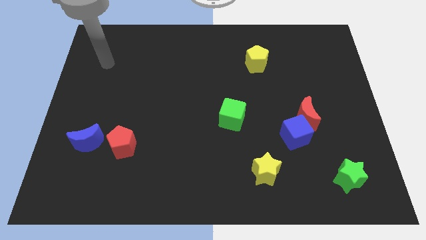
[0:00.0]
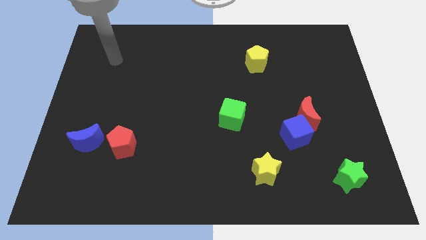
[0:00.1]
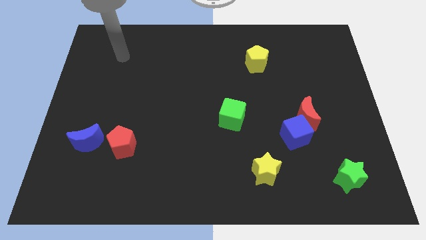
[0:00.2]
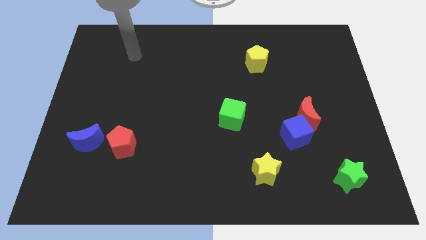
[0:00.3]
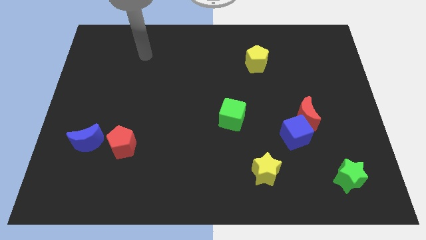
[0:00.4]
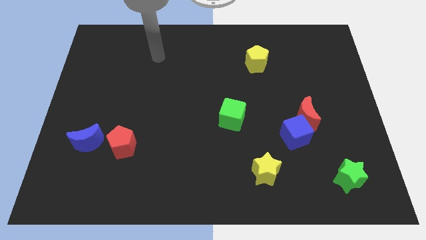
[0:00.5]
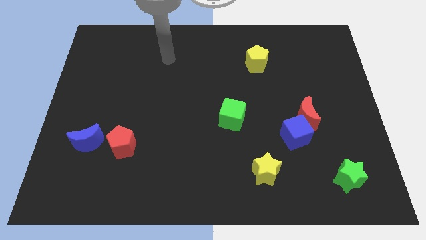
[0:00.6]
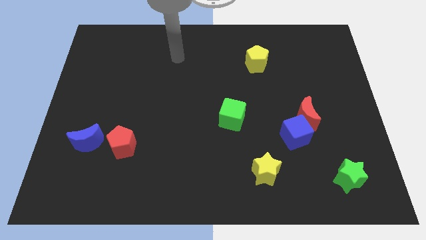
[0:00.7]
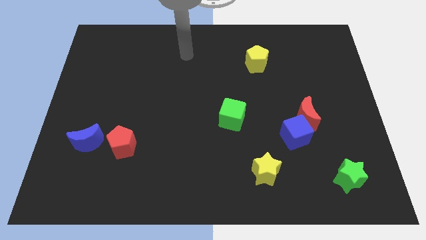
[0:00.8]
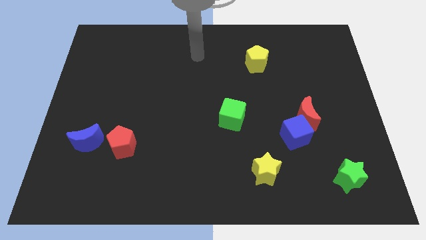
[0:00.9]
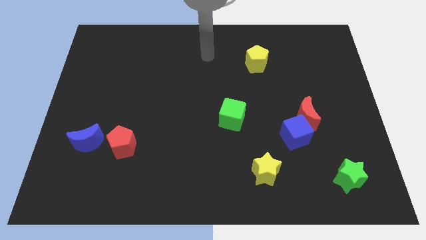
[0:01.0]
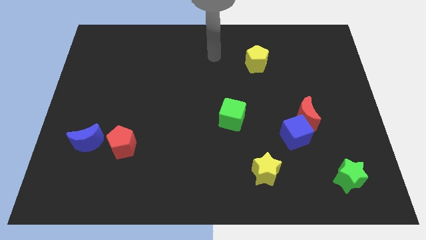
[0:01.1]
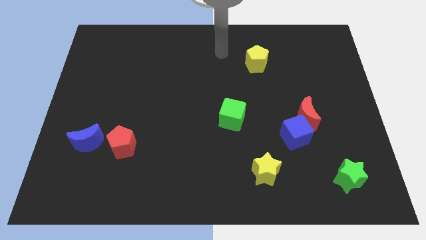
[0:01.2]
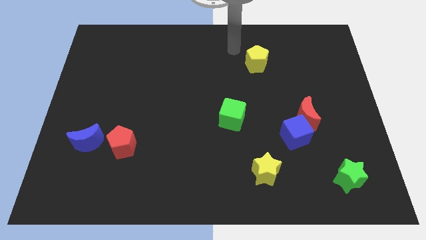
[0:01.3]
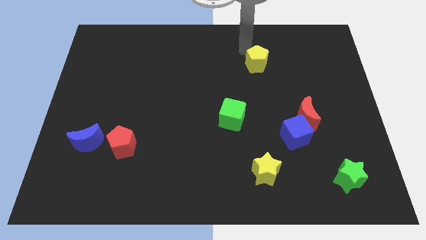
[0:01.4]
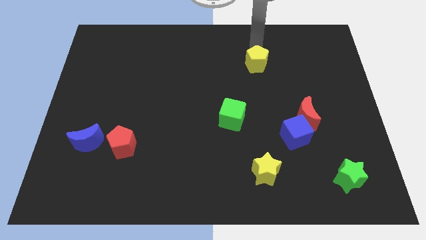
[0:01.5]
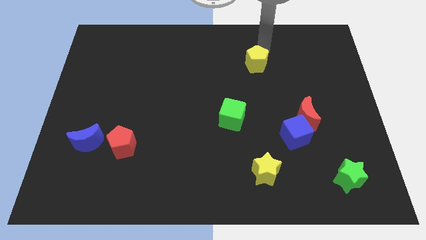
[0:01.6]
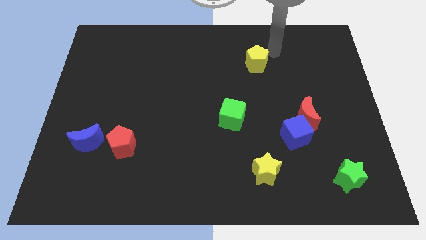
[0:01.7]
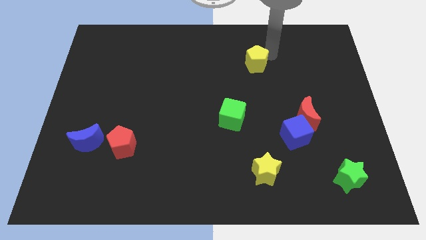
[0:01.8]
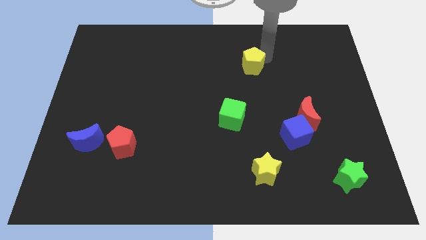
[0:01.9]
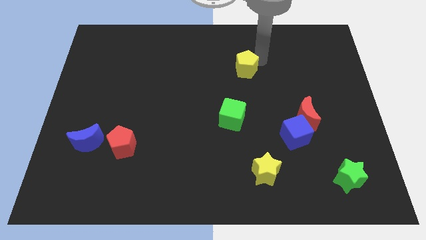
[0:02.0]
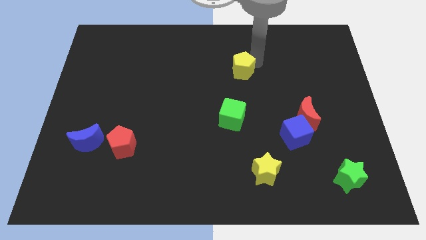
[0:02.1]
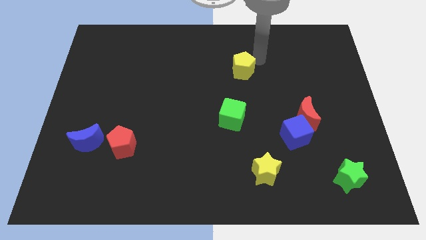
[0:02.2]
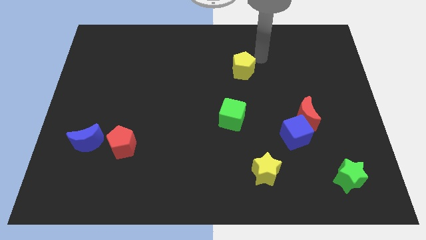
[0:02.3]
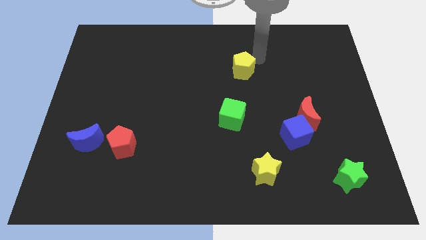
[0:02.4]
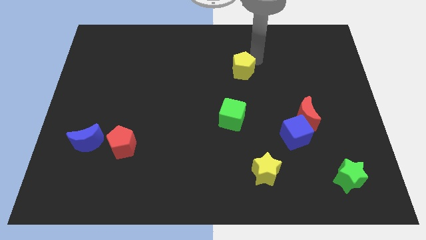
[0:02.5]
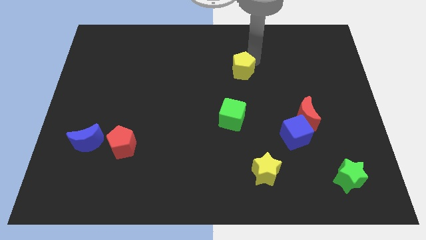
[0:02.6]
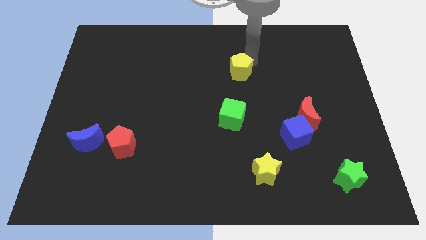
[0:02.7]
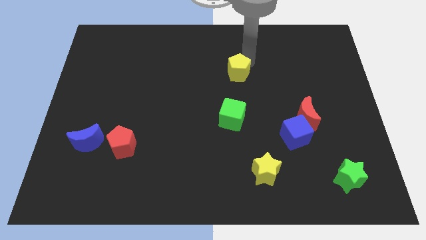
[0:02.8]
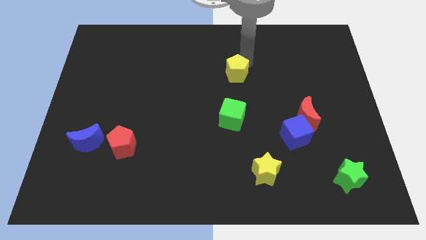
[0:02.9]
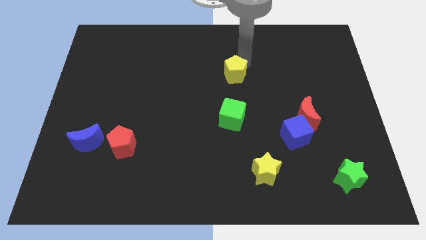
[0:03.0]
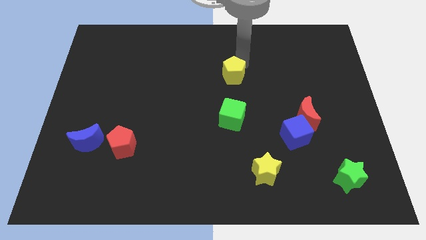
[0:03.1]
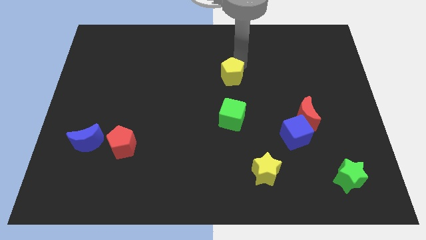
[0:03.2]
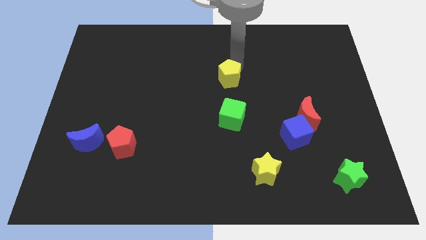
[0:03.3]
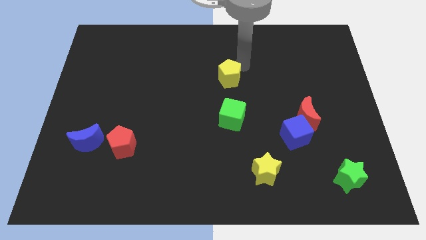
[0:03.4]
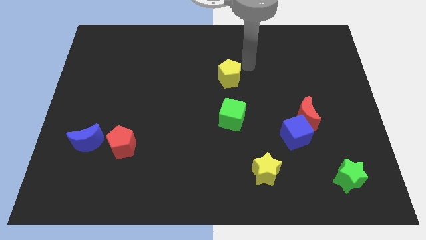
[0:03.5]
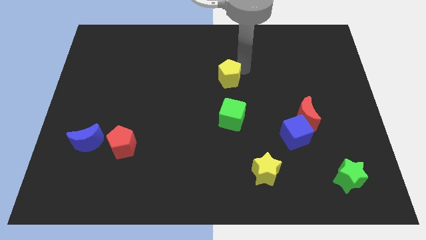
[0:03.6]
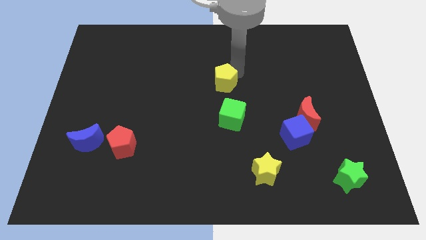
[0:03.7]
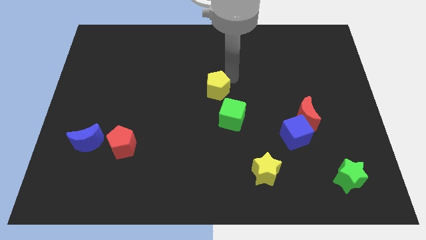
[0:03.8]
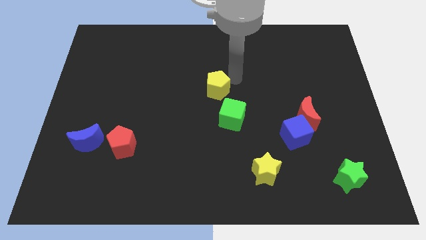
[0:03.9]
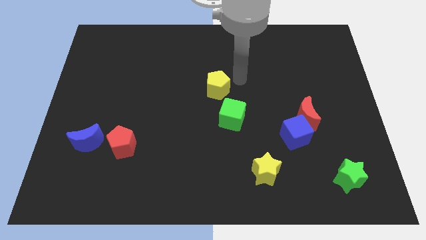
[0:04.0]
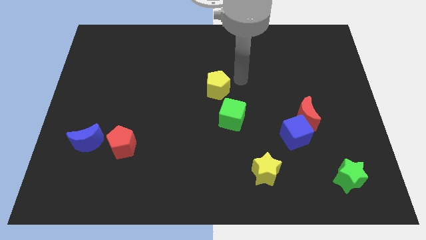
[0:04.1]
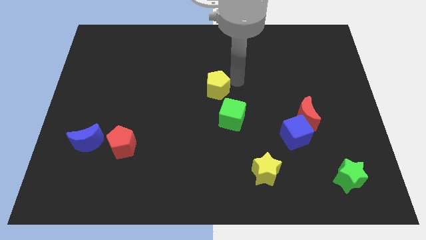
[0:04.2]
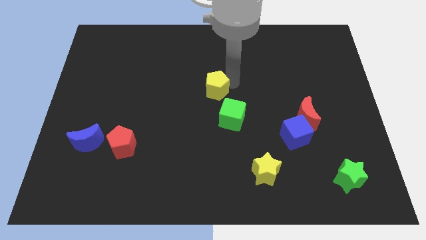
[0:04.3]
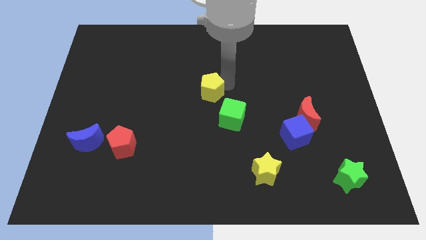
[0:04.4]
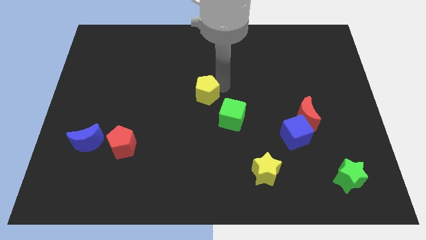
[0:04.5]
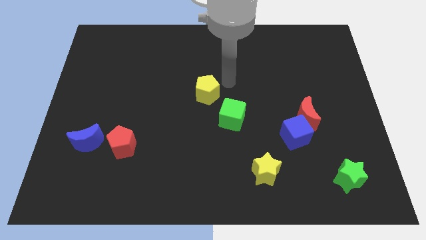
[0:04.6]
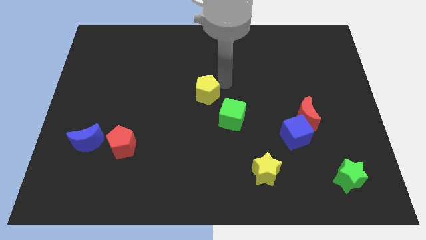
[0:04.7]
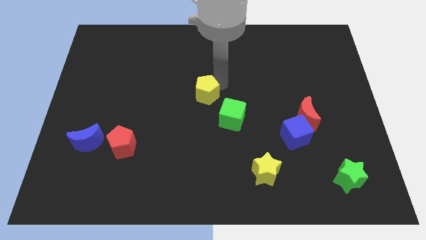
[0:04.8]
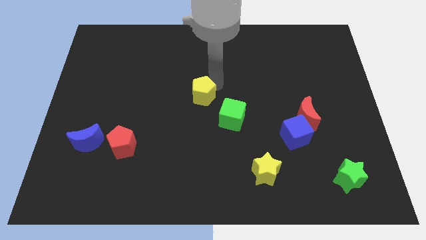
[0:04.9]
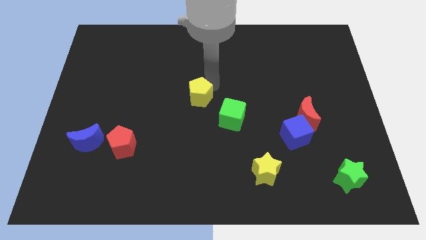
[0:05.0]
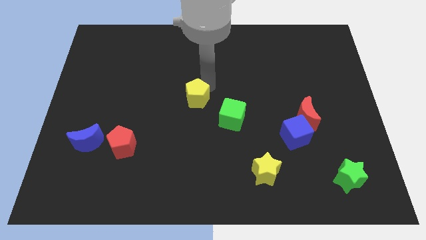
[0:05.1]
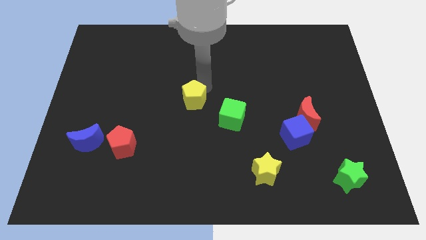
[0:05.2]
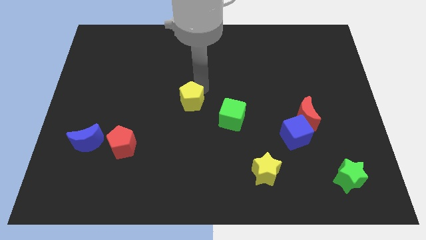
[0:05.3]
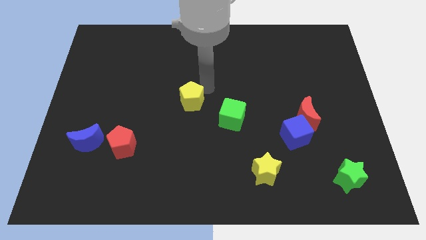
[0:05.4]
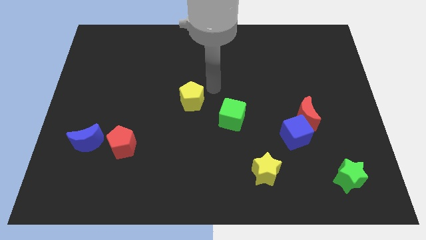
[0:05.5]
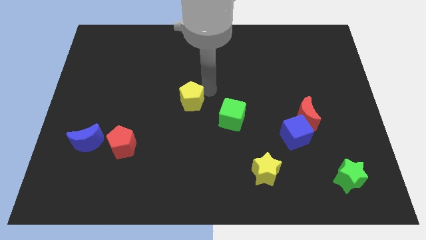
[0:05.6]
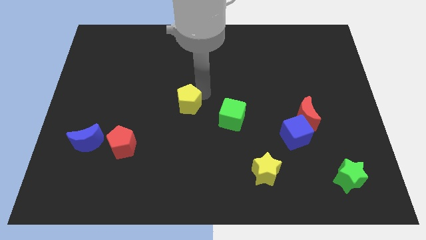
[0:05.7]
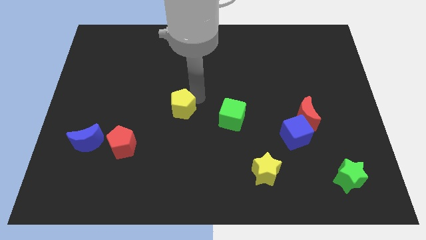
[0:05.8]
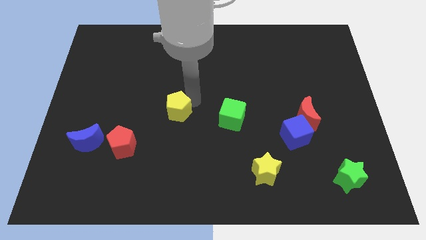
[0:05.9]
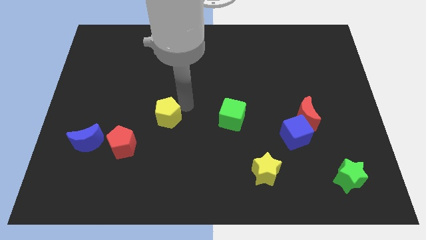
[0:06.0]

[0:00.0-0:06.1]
move the yellow pentagon to the top right side of the red pentagon
